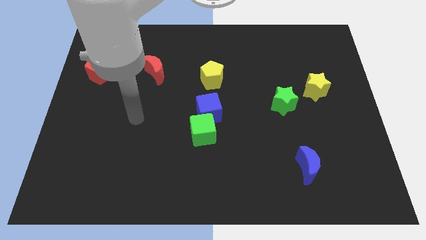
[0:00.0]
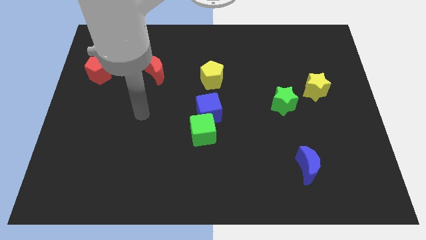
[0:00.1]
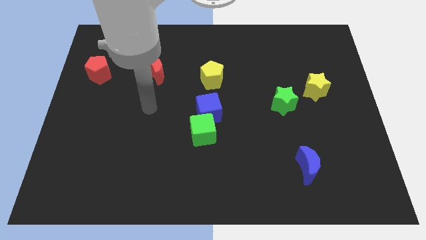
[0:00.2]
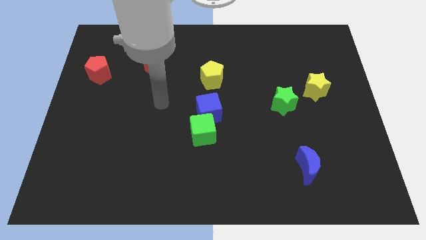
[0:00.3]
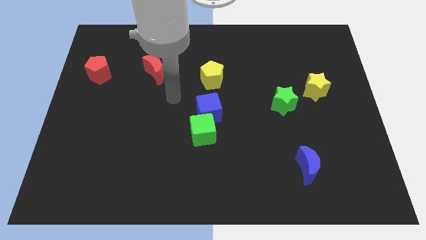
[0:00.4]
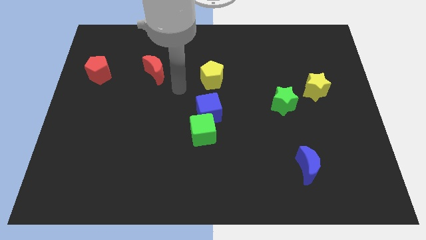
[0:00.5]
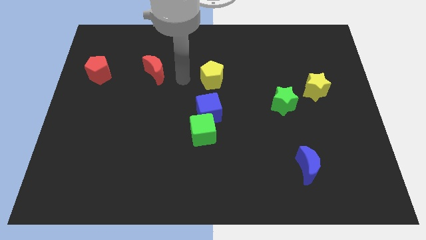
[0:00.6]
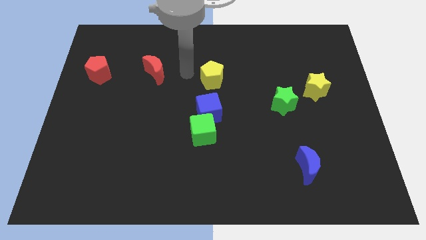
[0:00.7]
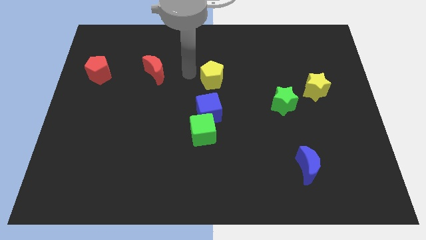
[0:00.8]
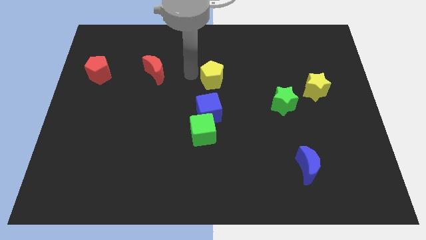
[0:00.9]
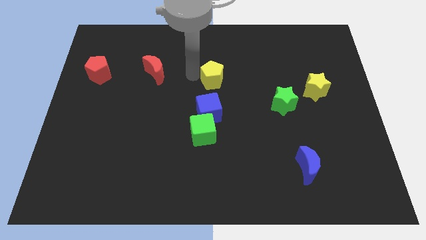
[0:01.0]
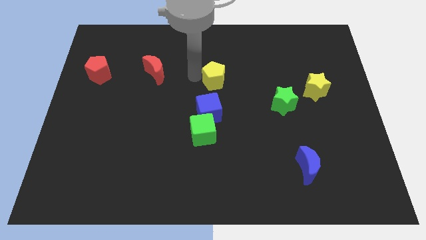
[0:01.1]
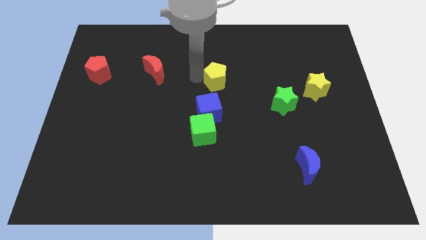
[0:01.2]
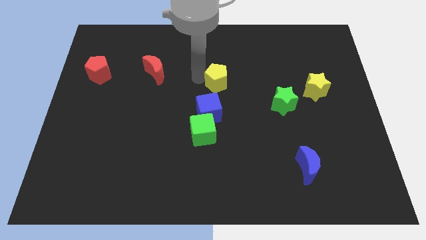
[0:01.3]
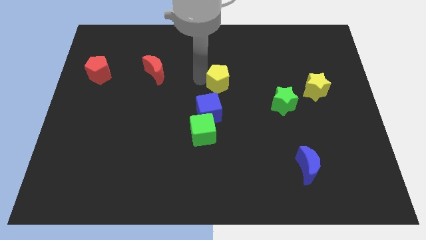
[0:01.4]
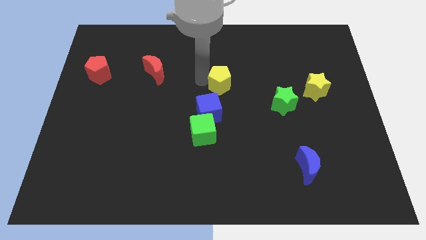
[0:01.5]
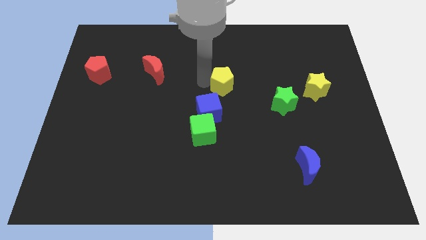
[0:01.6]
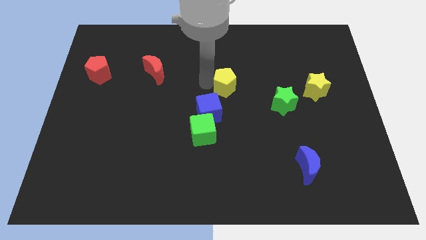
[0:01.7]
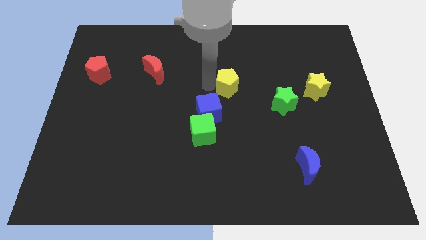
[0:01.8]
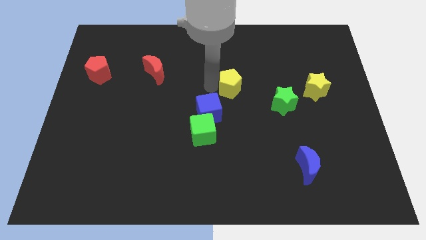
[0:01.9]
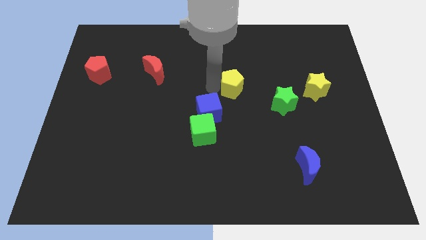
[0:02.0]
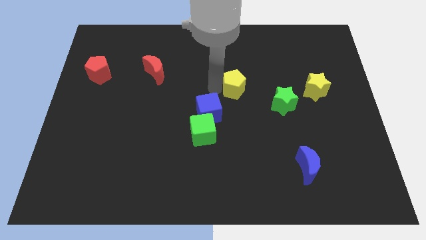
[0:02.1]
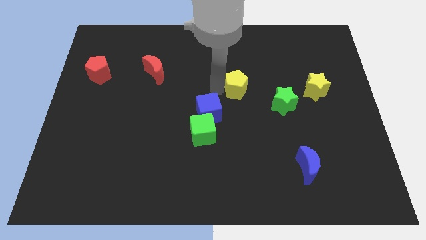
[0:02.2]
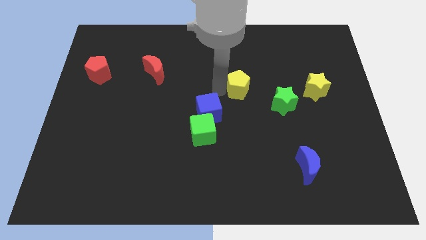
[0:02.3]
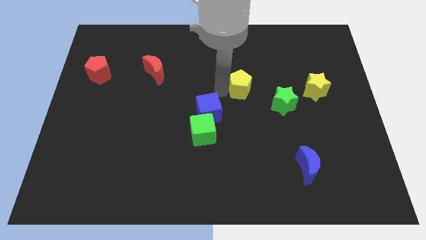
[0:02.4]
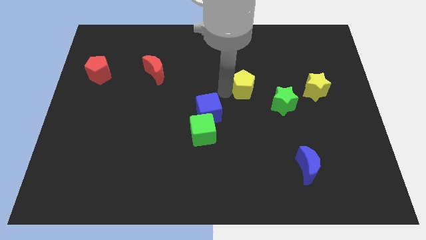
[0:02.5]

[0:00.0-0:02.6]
slightly move the yellow pentagon to the right

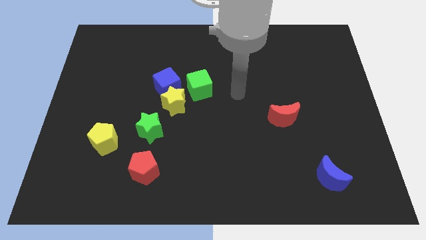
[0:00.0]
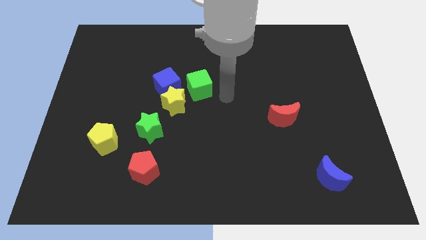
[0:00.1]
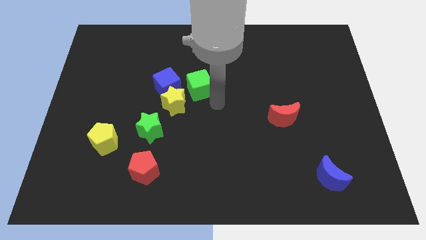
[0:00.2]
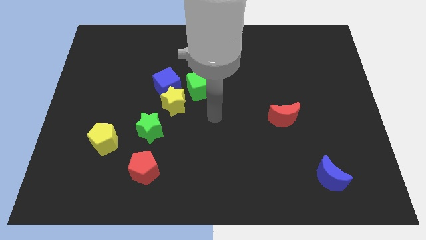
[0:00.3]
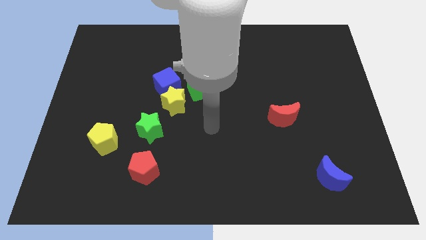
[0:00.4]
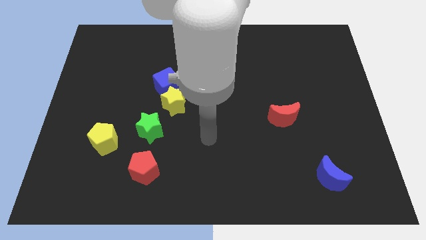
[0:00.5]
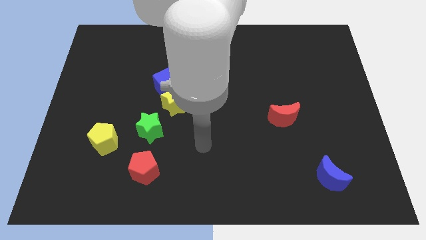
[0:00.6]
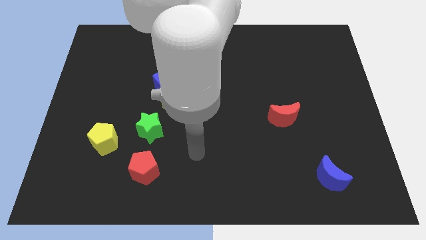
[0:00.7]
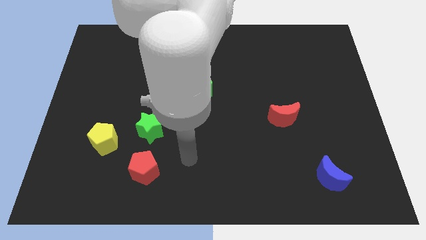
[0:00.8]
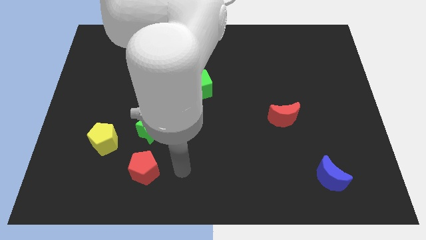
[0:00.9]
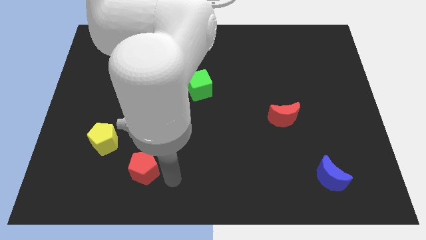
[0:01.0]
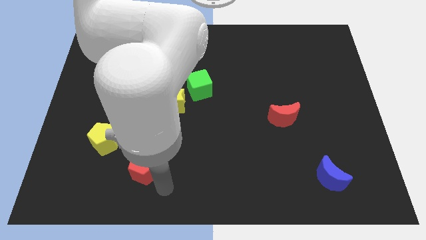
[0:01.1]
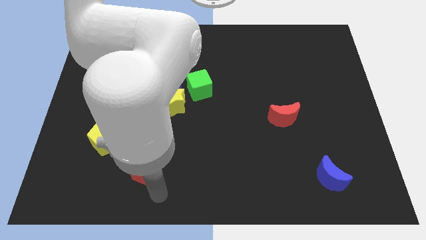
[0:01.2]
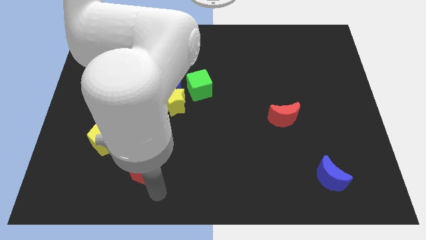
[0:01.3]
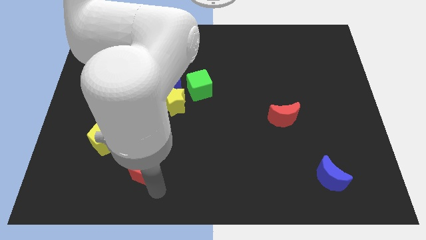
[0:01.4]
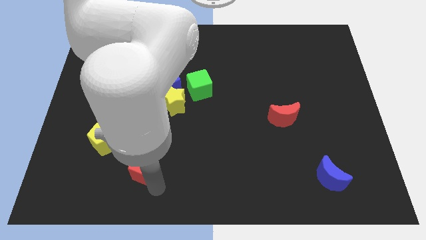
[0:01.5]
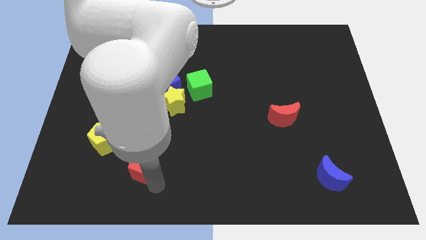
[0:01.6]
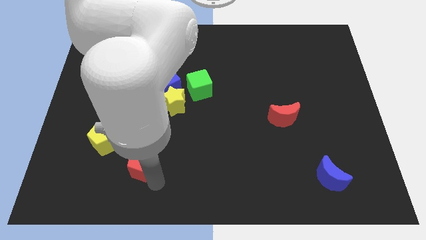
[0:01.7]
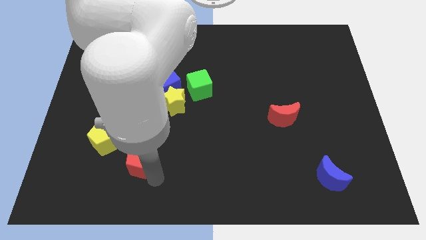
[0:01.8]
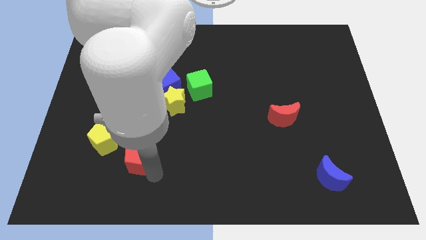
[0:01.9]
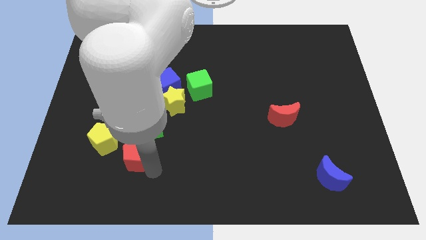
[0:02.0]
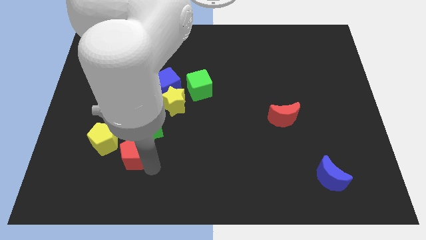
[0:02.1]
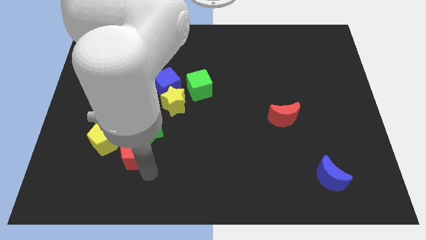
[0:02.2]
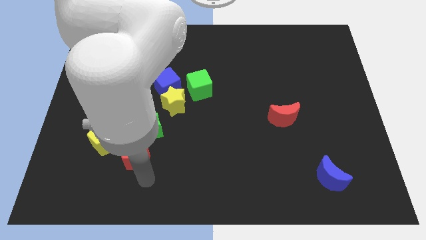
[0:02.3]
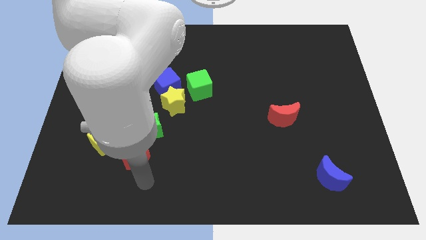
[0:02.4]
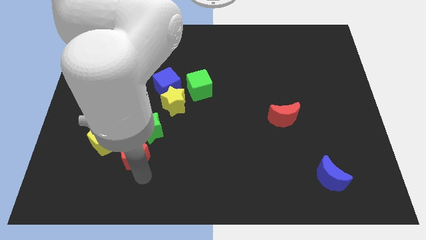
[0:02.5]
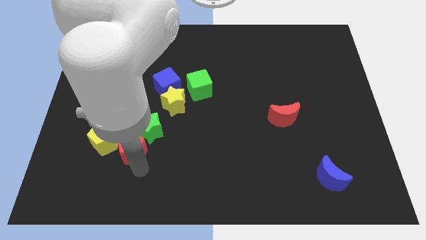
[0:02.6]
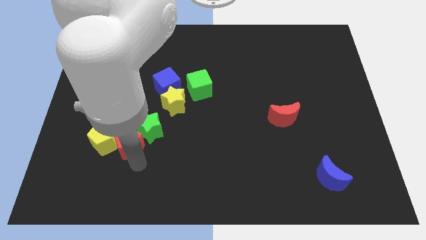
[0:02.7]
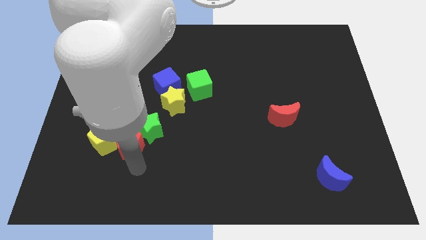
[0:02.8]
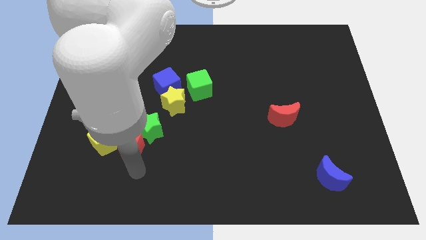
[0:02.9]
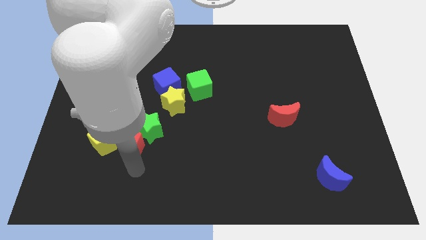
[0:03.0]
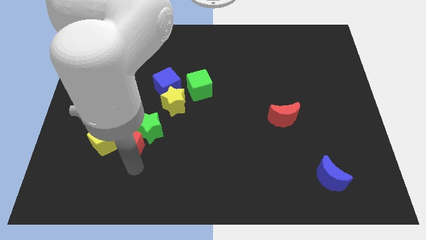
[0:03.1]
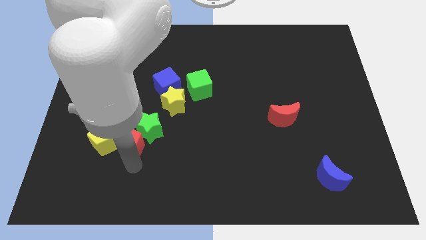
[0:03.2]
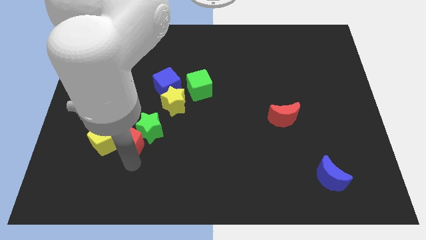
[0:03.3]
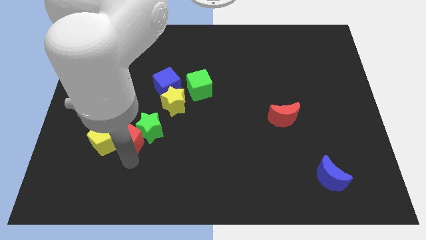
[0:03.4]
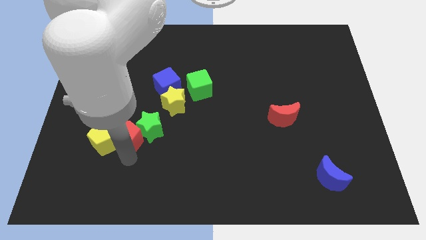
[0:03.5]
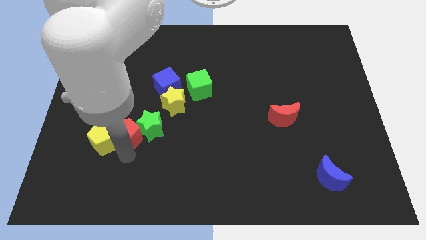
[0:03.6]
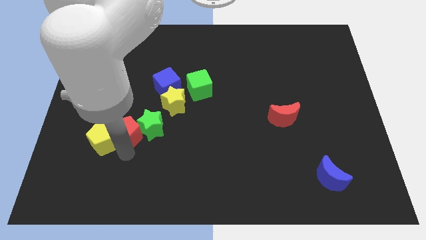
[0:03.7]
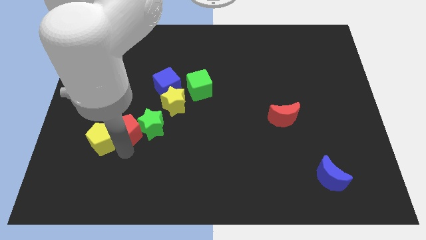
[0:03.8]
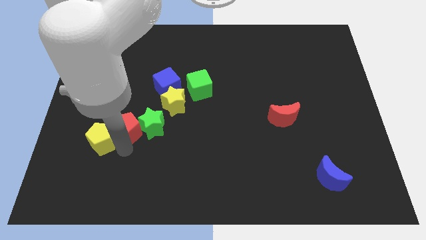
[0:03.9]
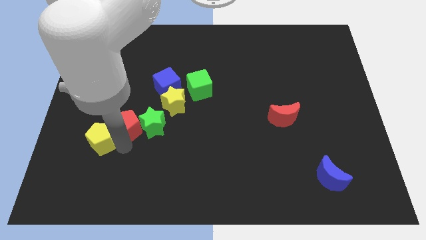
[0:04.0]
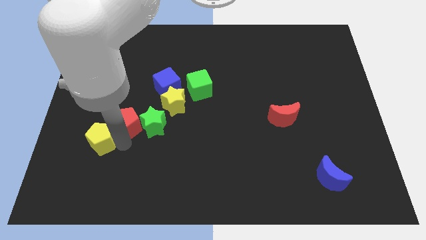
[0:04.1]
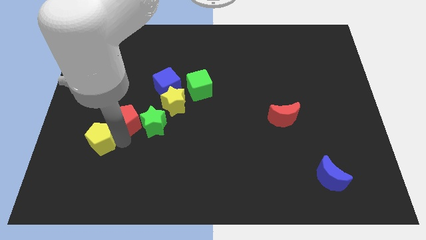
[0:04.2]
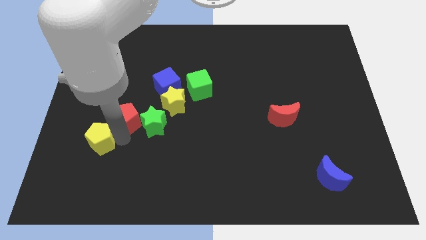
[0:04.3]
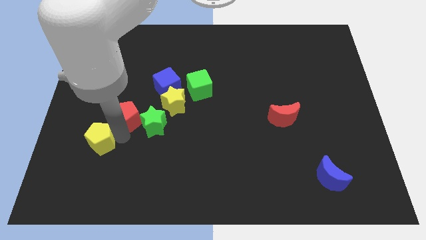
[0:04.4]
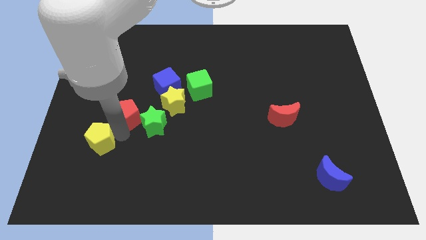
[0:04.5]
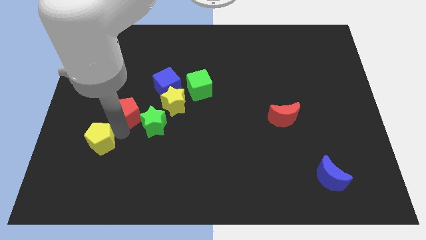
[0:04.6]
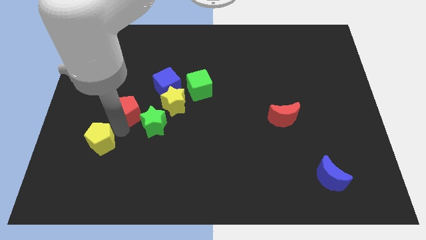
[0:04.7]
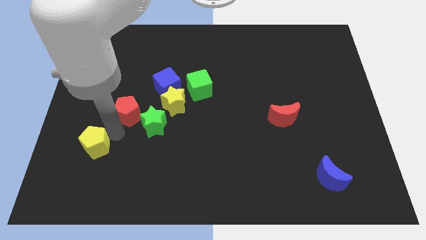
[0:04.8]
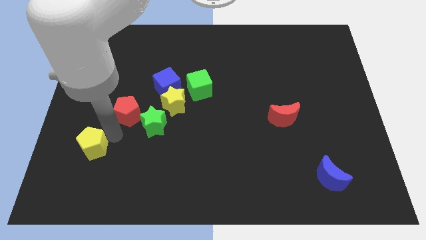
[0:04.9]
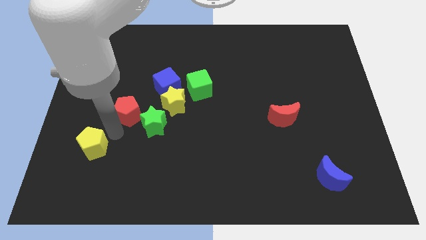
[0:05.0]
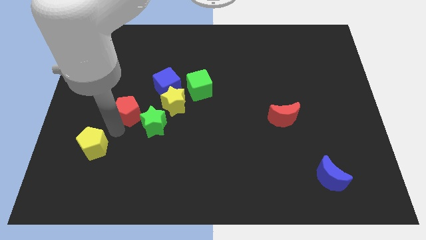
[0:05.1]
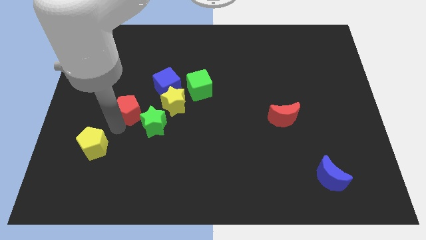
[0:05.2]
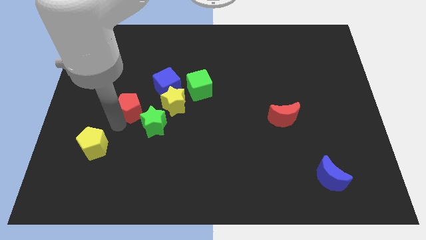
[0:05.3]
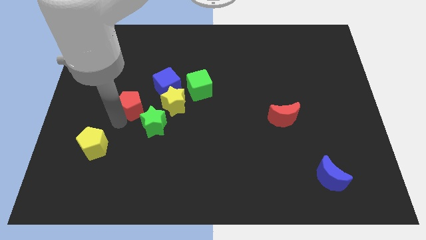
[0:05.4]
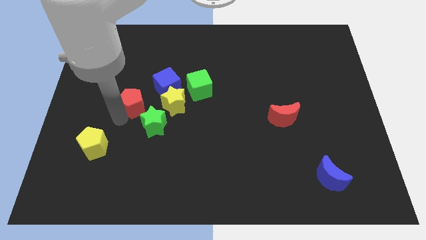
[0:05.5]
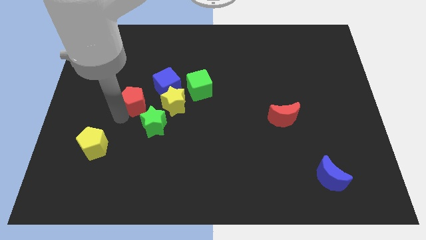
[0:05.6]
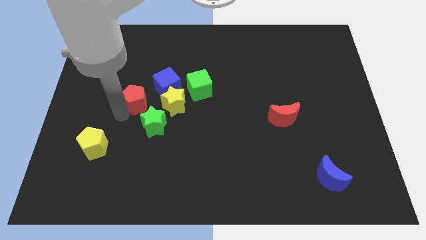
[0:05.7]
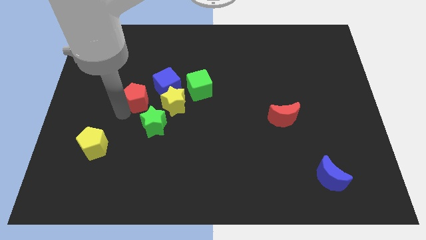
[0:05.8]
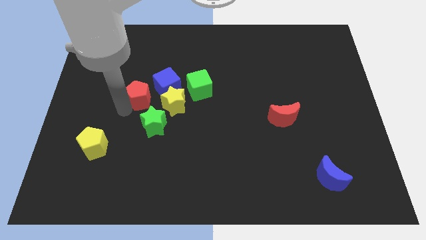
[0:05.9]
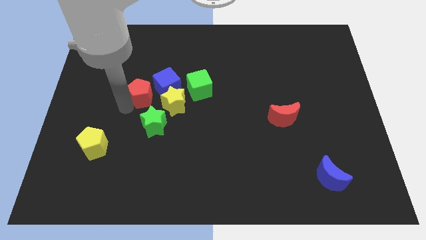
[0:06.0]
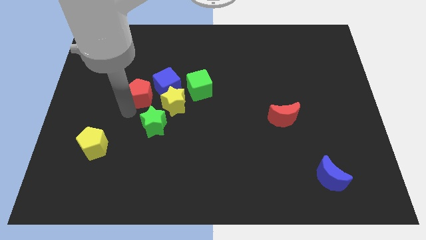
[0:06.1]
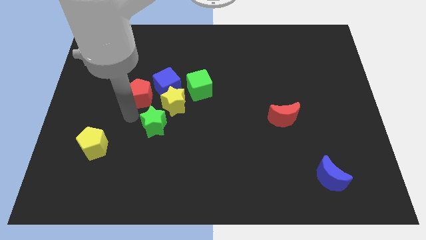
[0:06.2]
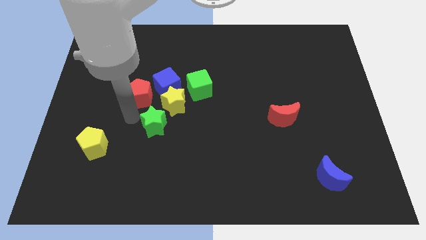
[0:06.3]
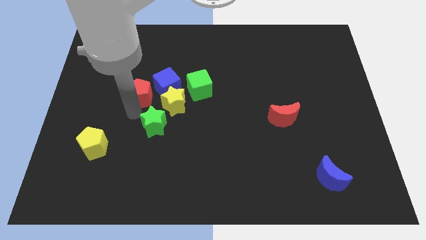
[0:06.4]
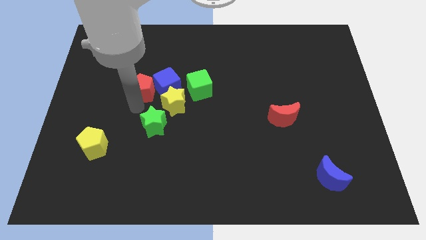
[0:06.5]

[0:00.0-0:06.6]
push the red pentagon up
